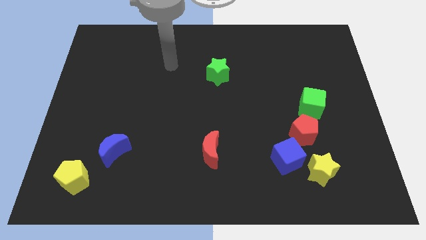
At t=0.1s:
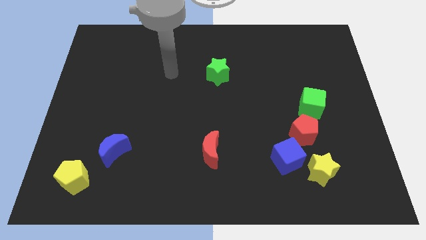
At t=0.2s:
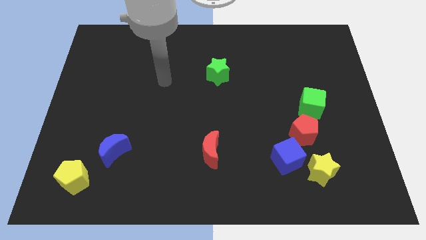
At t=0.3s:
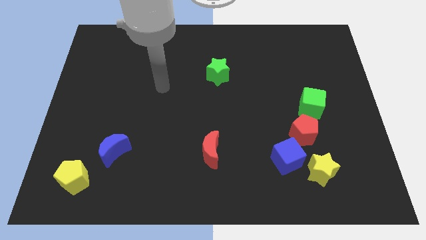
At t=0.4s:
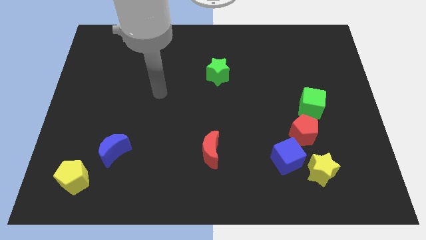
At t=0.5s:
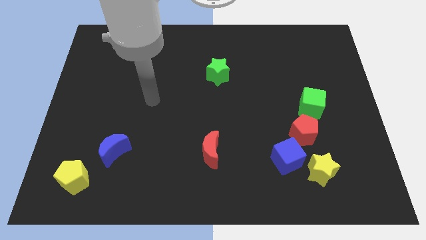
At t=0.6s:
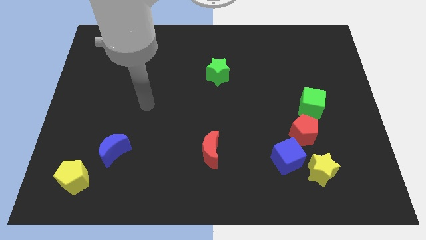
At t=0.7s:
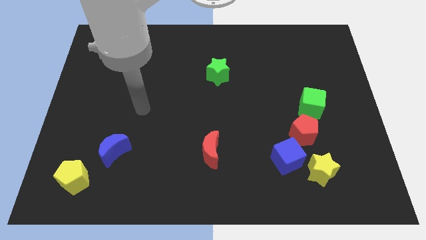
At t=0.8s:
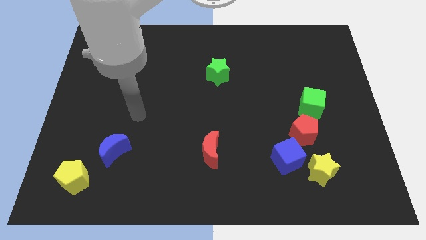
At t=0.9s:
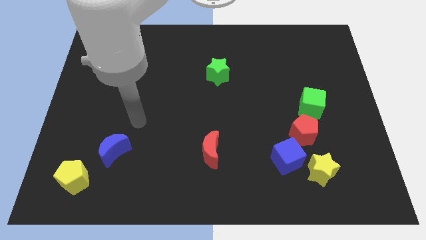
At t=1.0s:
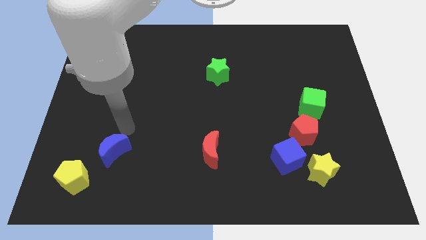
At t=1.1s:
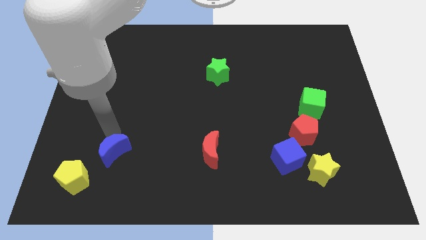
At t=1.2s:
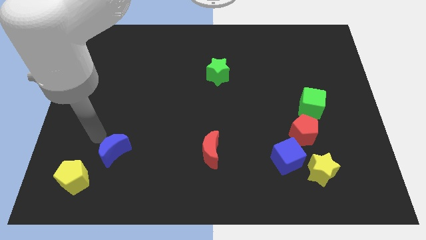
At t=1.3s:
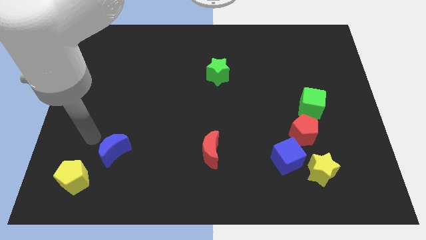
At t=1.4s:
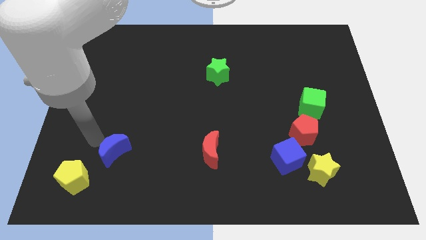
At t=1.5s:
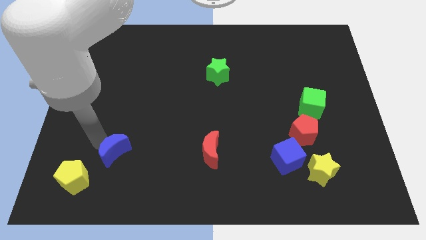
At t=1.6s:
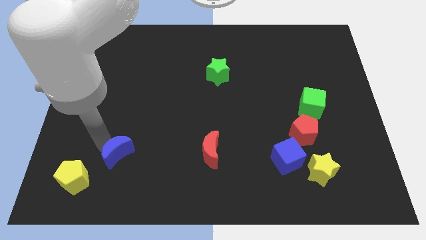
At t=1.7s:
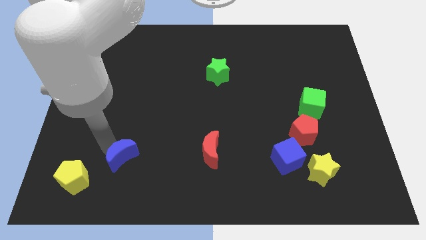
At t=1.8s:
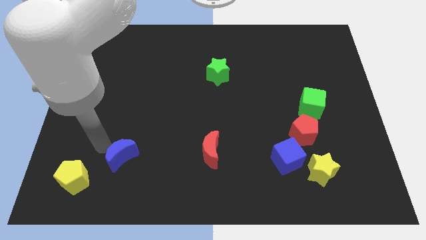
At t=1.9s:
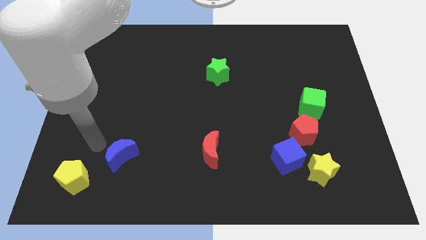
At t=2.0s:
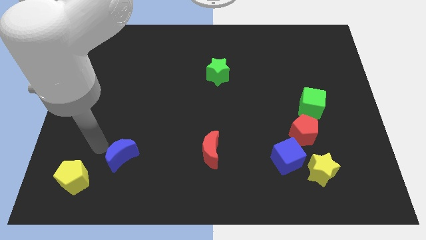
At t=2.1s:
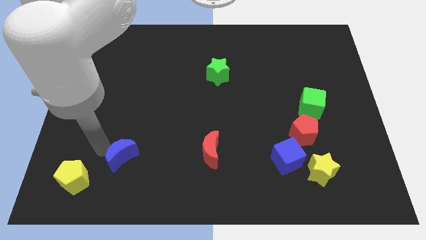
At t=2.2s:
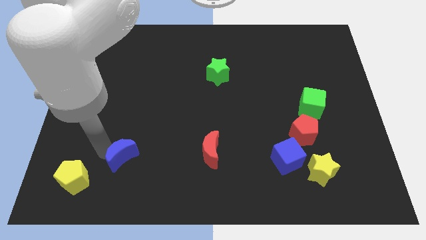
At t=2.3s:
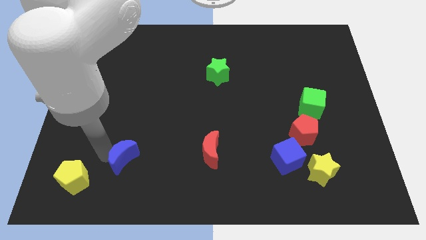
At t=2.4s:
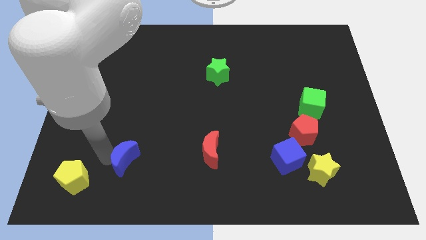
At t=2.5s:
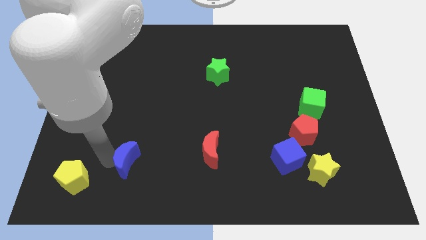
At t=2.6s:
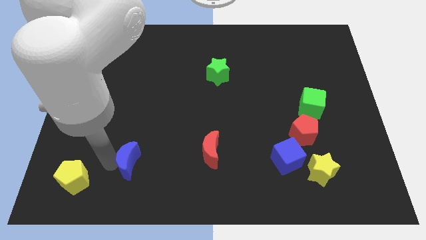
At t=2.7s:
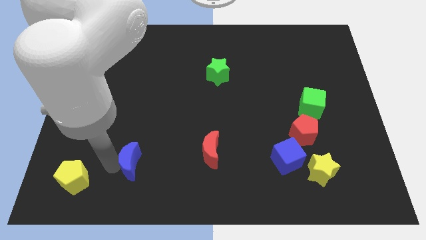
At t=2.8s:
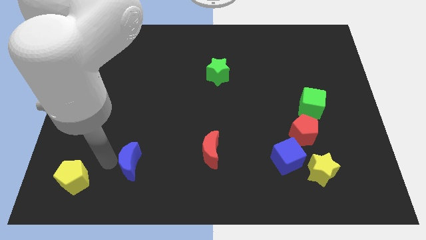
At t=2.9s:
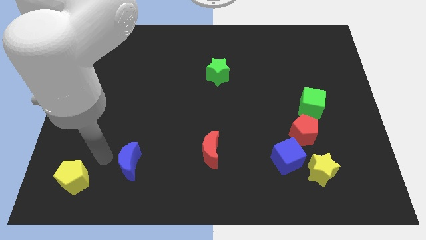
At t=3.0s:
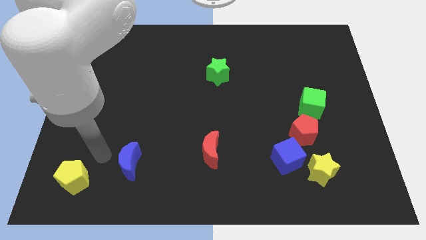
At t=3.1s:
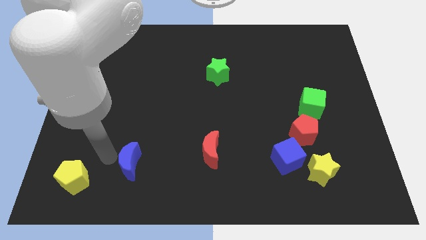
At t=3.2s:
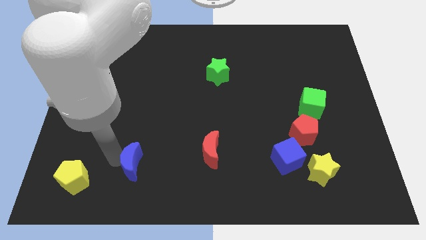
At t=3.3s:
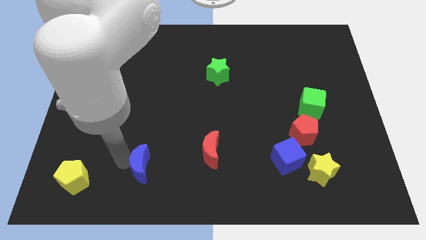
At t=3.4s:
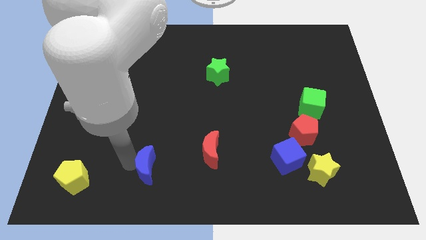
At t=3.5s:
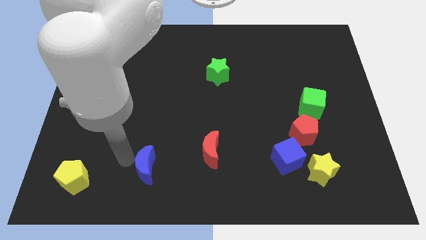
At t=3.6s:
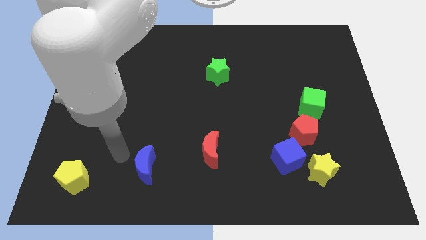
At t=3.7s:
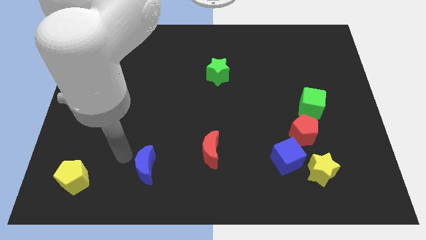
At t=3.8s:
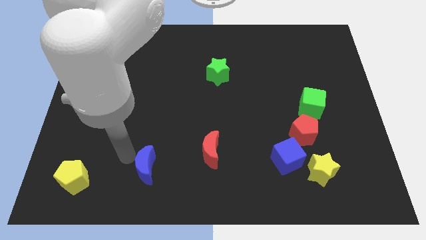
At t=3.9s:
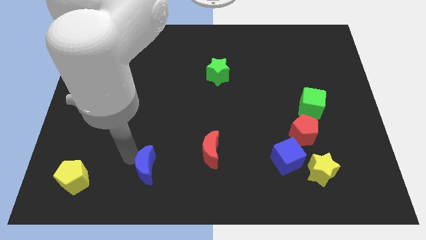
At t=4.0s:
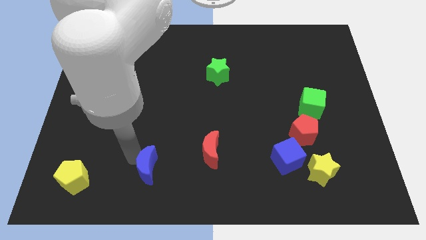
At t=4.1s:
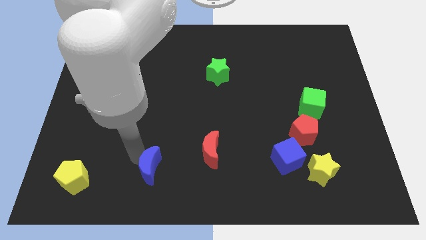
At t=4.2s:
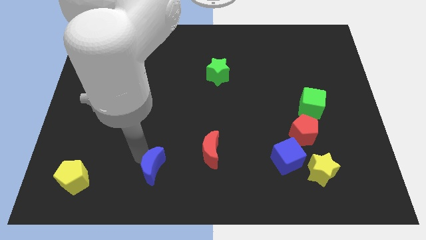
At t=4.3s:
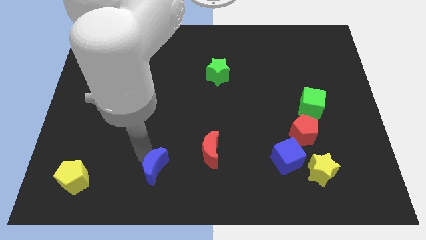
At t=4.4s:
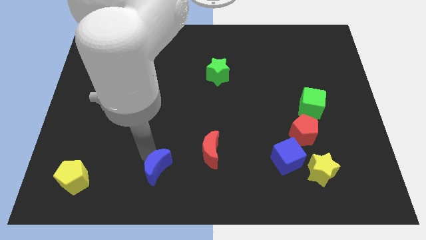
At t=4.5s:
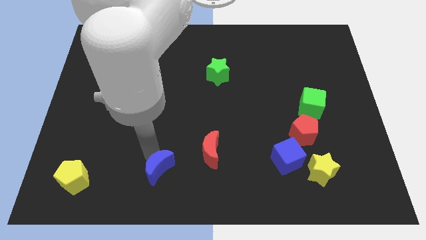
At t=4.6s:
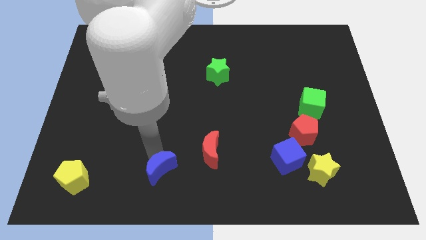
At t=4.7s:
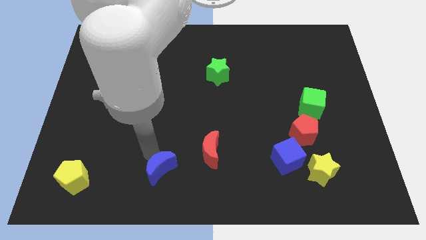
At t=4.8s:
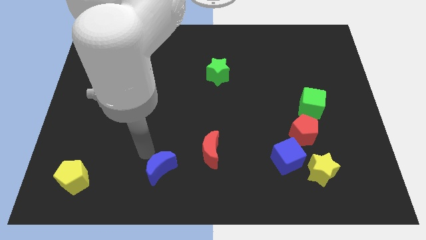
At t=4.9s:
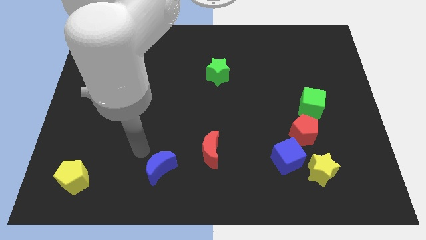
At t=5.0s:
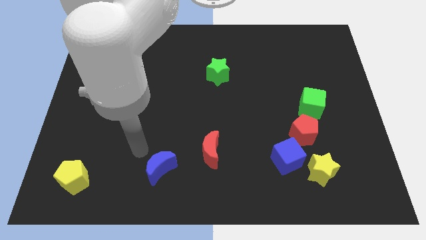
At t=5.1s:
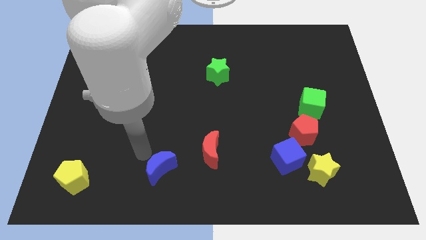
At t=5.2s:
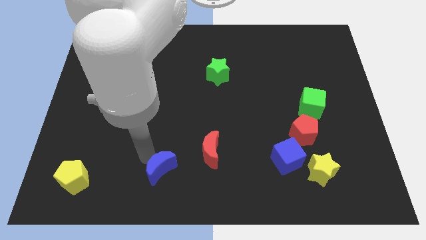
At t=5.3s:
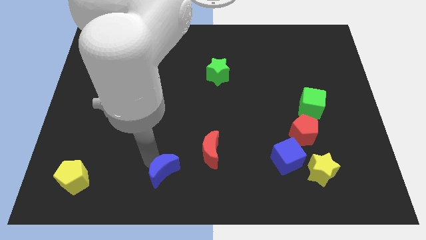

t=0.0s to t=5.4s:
push the blue moon to the bottom

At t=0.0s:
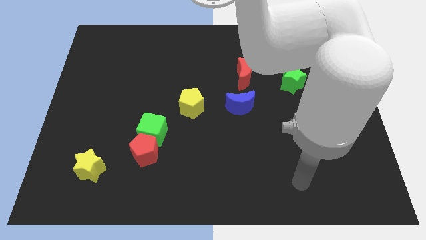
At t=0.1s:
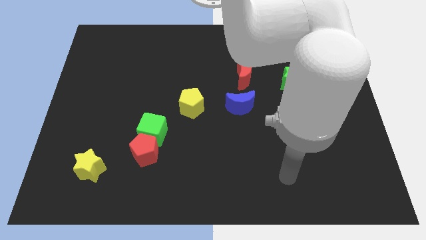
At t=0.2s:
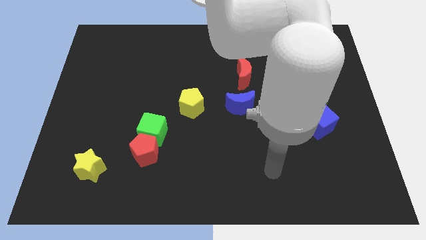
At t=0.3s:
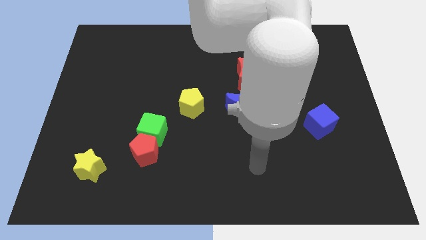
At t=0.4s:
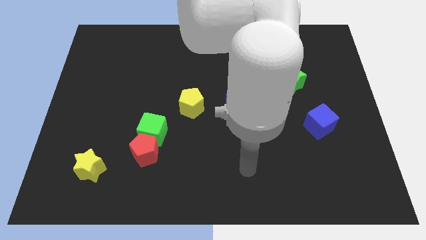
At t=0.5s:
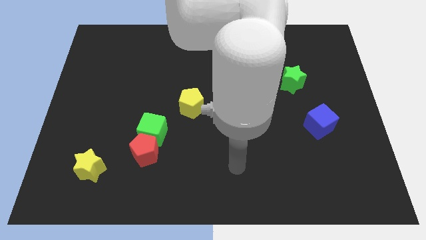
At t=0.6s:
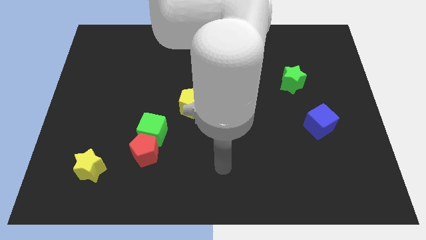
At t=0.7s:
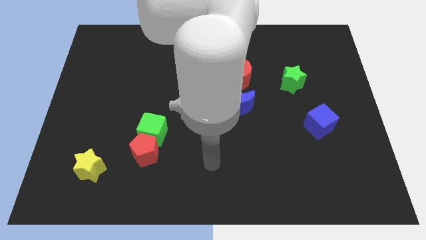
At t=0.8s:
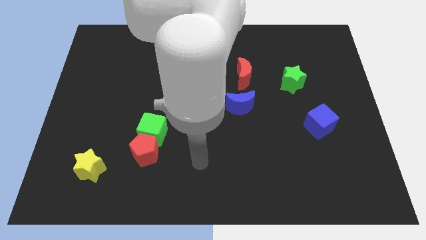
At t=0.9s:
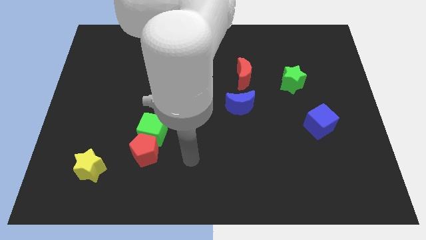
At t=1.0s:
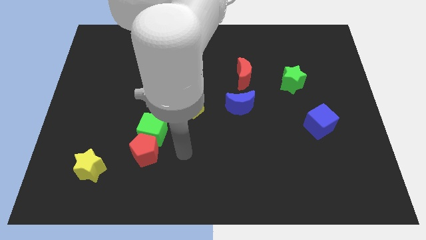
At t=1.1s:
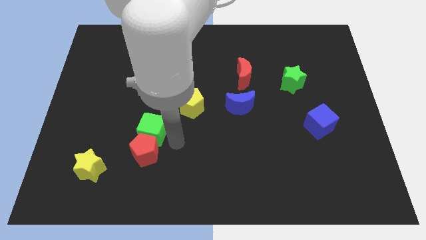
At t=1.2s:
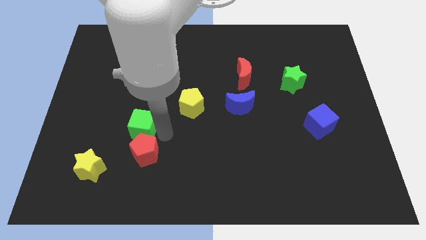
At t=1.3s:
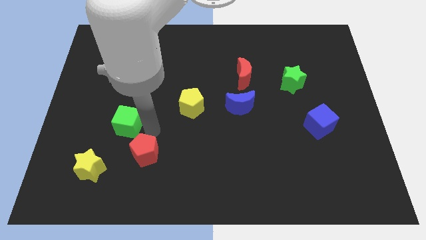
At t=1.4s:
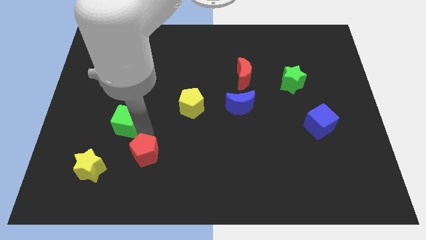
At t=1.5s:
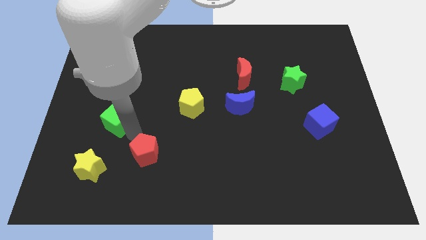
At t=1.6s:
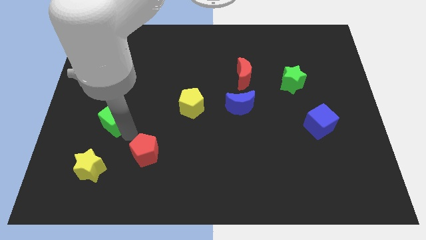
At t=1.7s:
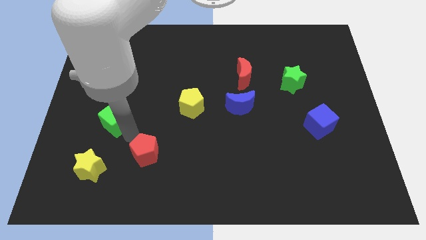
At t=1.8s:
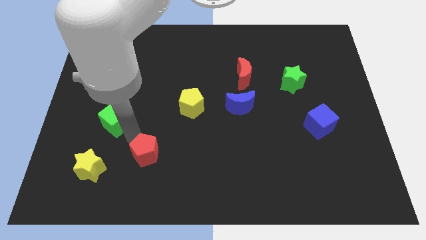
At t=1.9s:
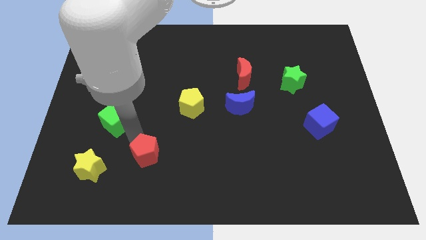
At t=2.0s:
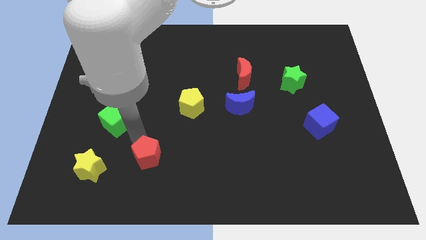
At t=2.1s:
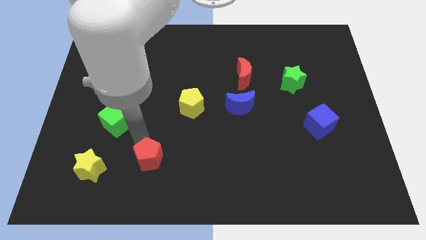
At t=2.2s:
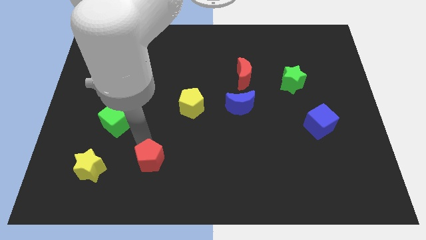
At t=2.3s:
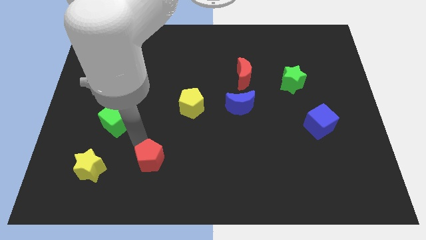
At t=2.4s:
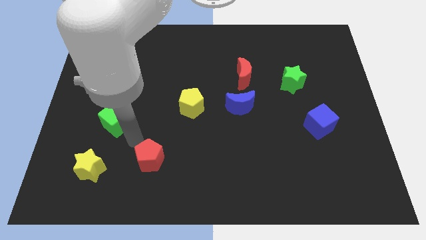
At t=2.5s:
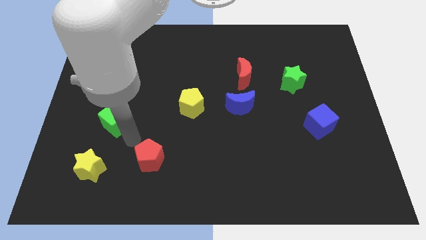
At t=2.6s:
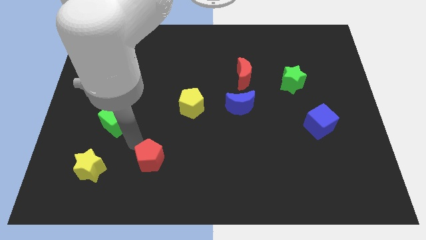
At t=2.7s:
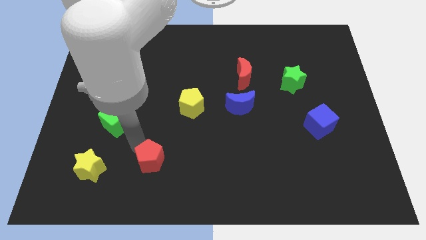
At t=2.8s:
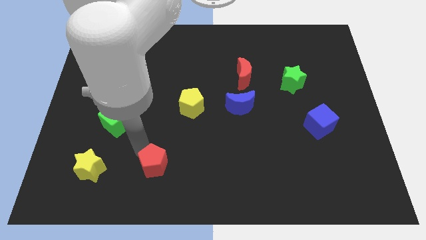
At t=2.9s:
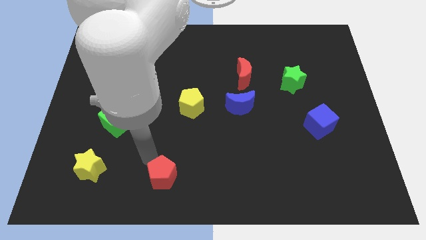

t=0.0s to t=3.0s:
put the red pentagon to the bottom
